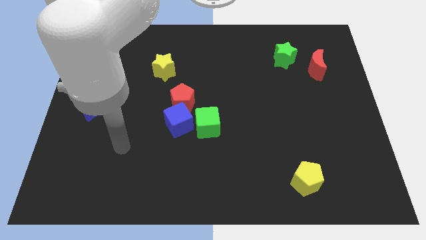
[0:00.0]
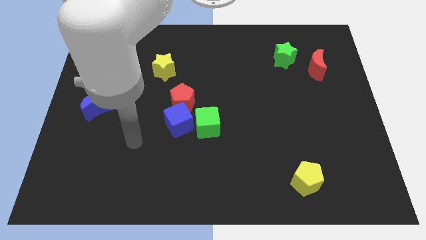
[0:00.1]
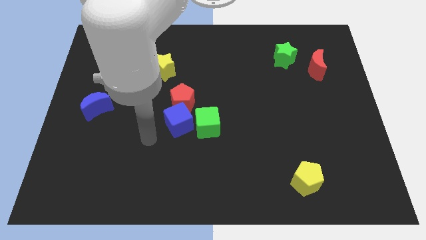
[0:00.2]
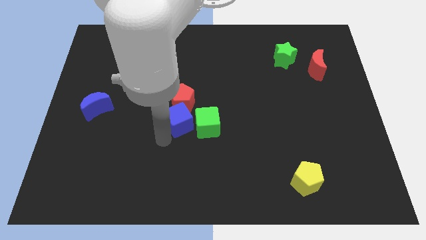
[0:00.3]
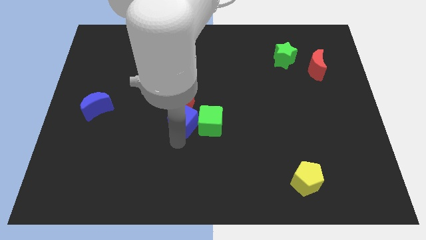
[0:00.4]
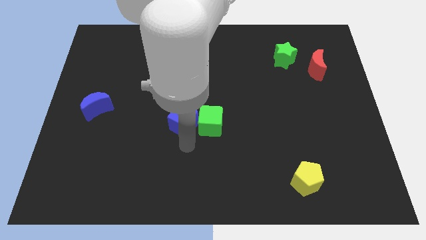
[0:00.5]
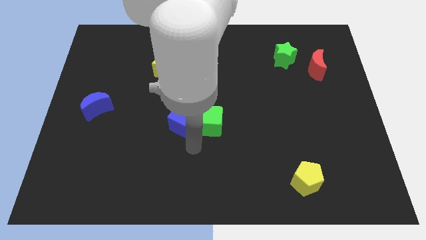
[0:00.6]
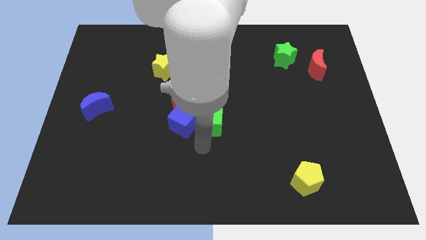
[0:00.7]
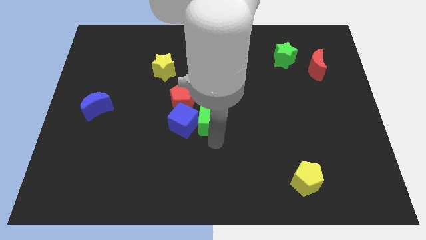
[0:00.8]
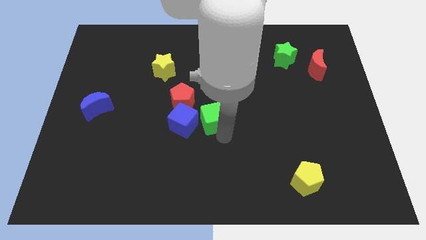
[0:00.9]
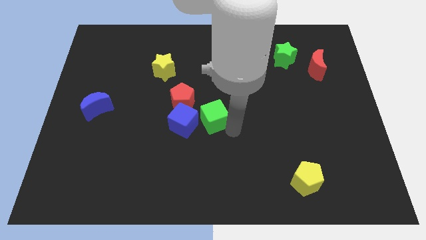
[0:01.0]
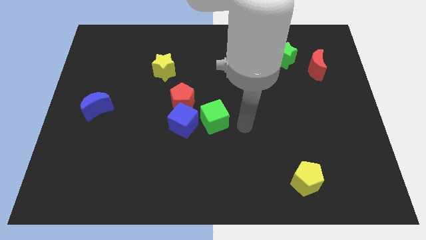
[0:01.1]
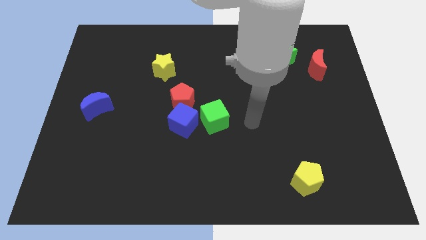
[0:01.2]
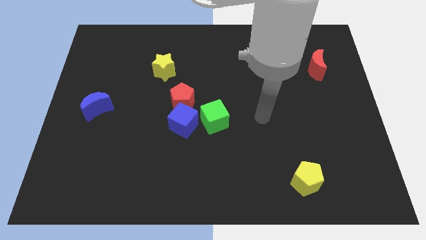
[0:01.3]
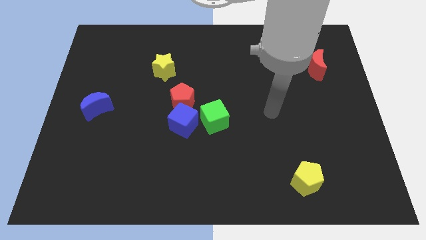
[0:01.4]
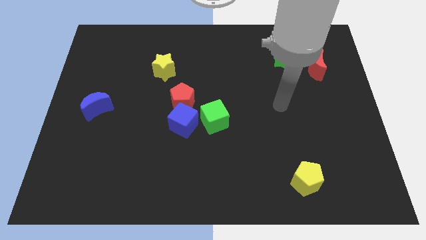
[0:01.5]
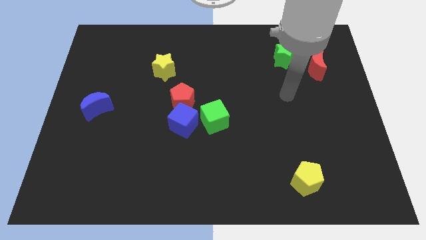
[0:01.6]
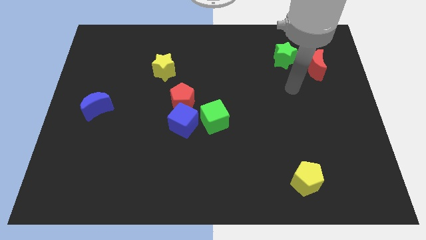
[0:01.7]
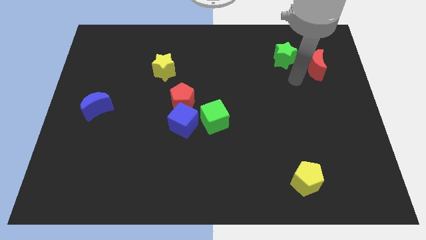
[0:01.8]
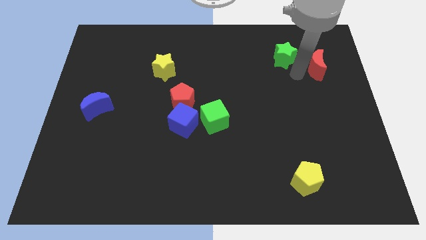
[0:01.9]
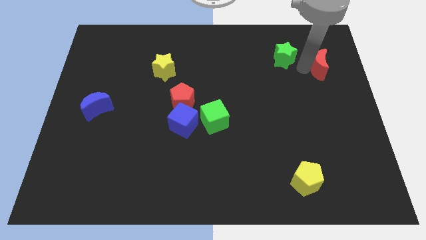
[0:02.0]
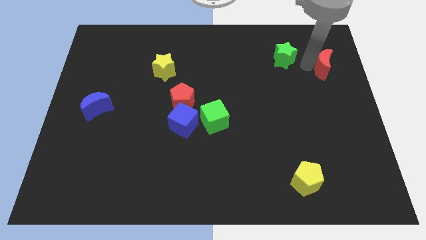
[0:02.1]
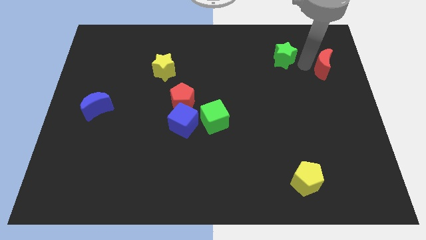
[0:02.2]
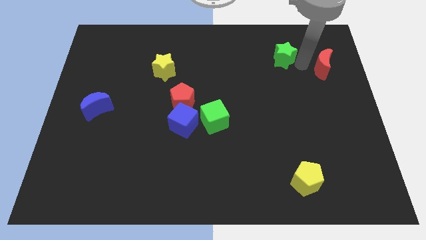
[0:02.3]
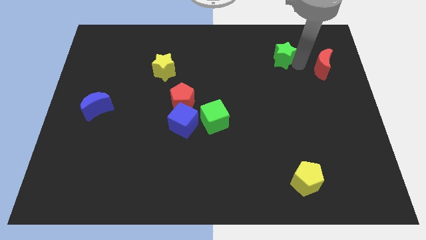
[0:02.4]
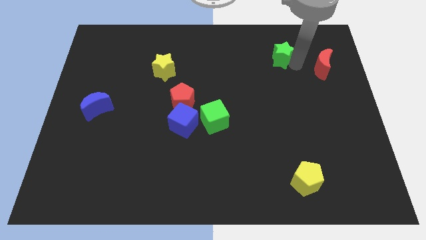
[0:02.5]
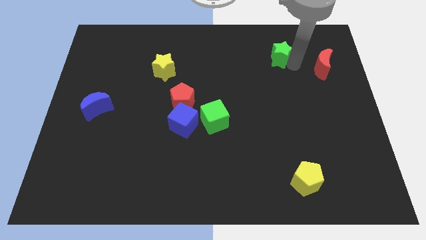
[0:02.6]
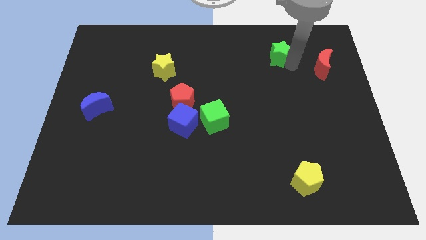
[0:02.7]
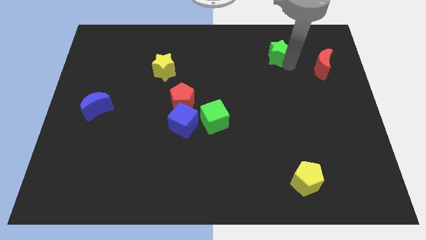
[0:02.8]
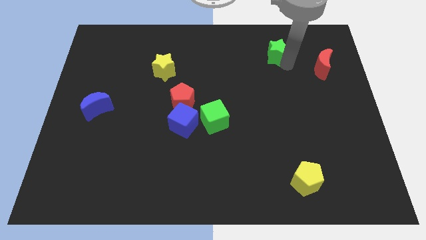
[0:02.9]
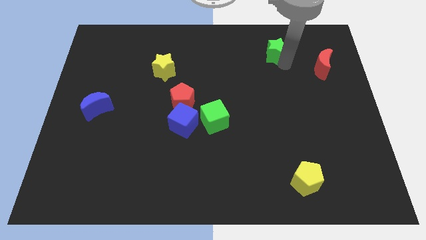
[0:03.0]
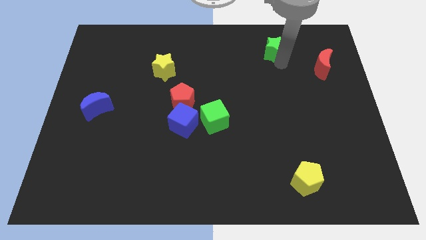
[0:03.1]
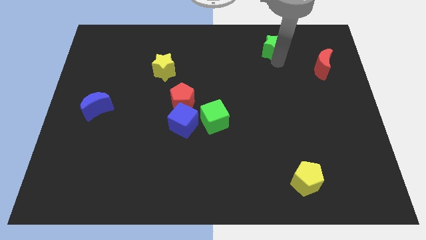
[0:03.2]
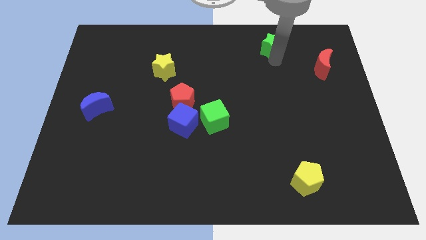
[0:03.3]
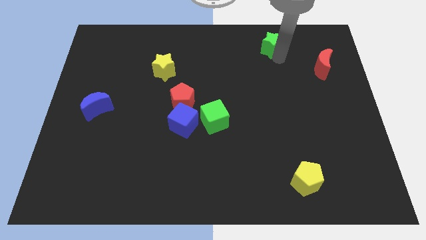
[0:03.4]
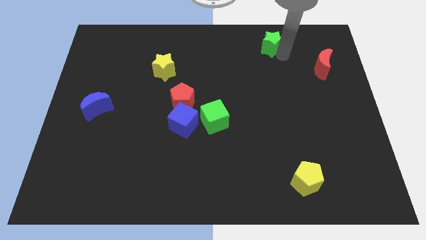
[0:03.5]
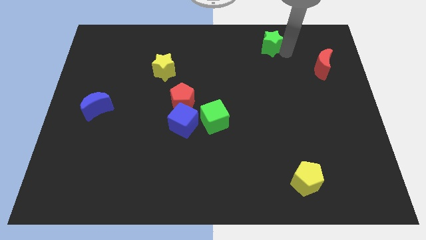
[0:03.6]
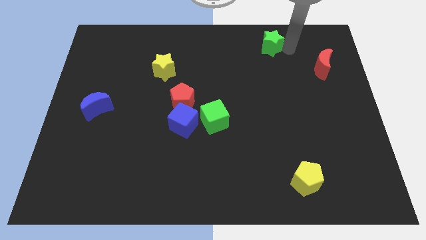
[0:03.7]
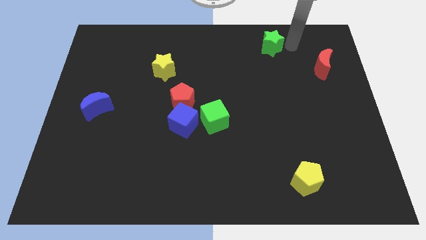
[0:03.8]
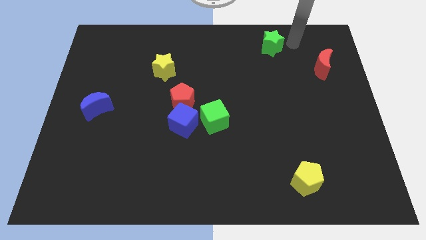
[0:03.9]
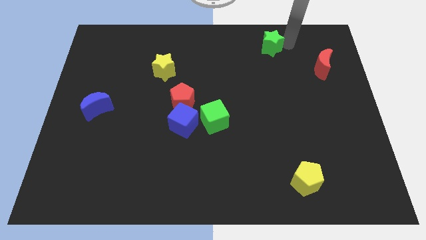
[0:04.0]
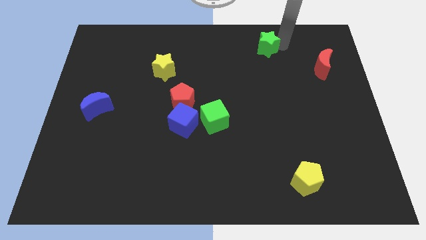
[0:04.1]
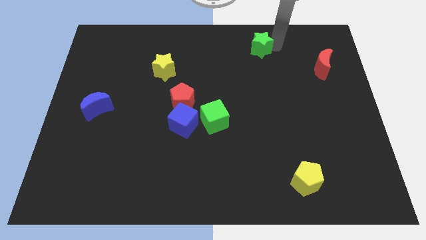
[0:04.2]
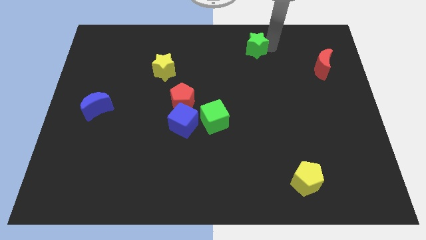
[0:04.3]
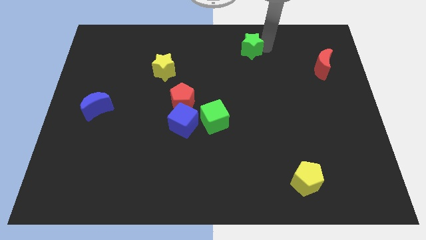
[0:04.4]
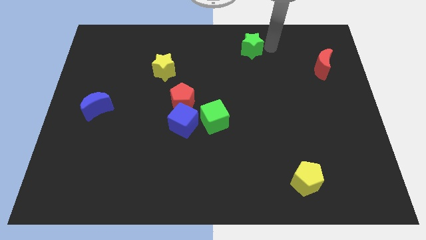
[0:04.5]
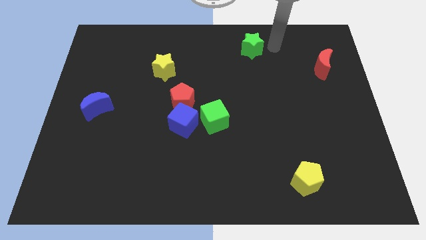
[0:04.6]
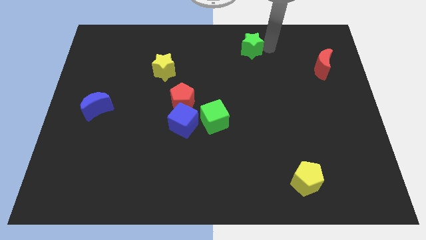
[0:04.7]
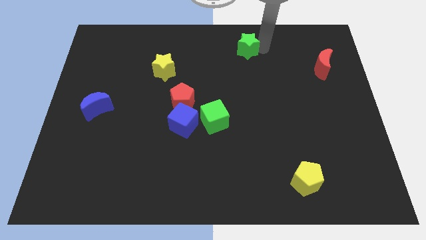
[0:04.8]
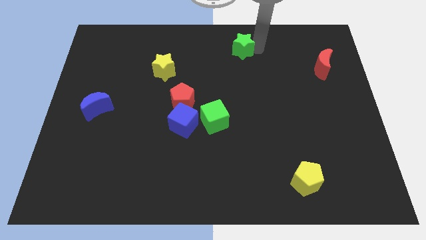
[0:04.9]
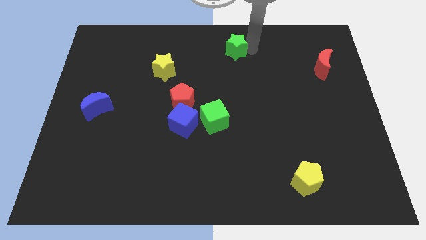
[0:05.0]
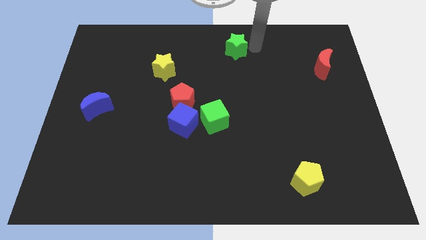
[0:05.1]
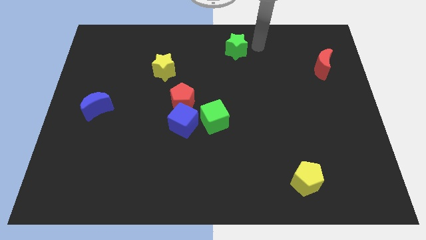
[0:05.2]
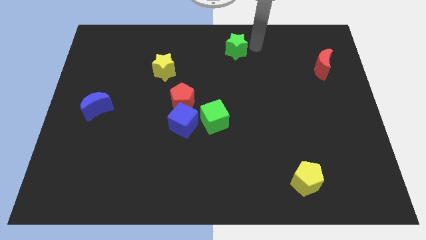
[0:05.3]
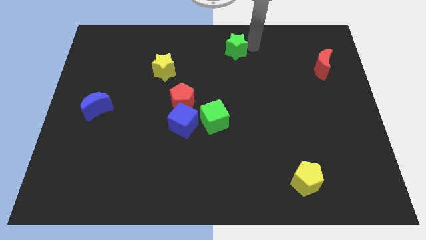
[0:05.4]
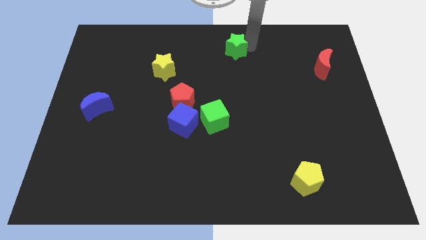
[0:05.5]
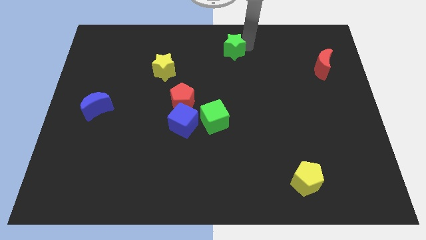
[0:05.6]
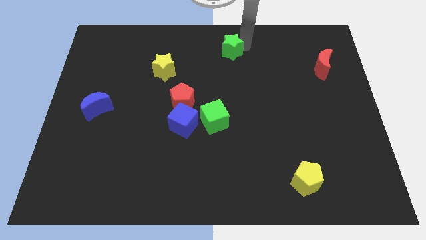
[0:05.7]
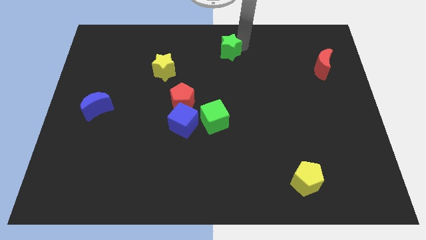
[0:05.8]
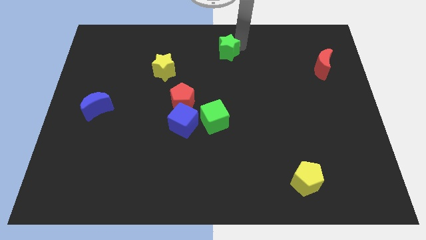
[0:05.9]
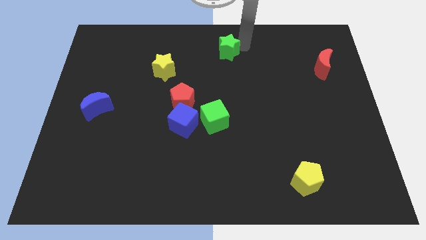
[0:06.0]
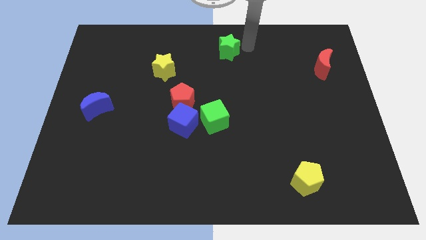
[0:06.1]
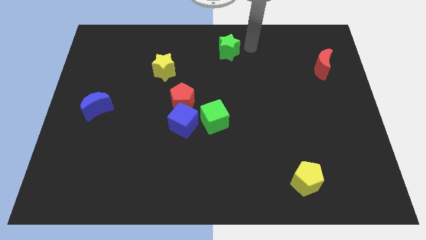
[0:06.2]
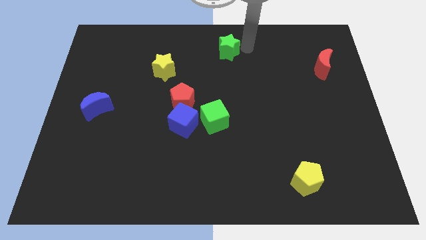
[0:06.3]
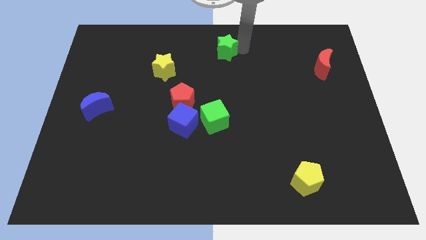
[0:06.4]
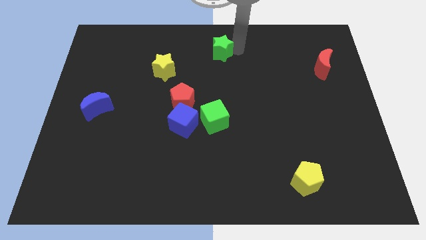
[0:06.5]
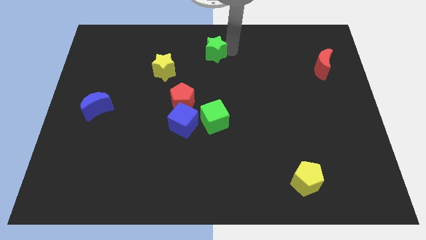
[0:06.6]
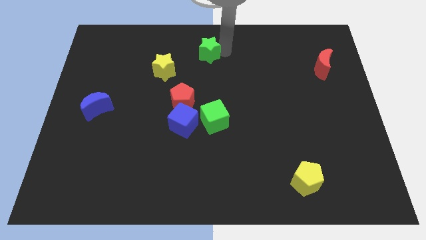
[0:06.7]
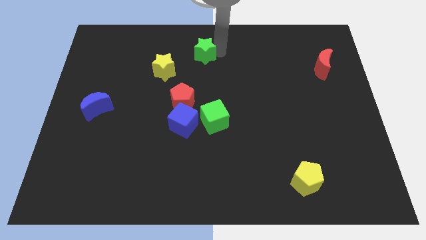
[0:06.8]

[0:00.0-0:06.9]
slide the green star to the left

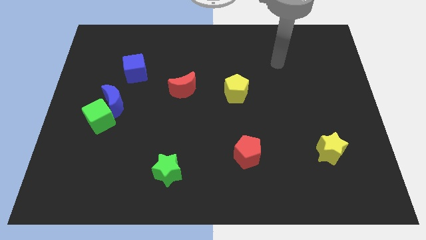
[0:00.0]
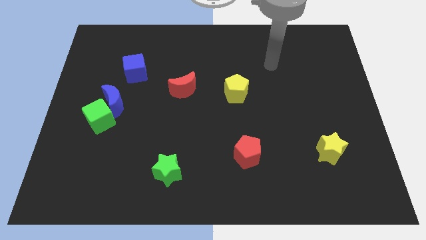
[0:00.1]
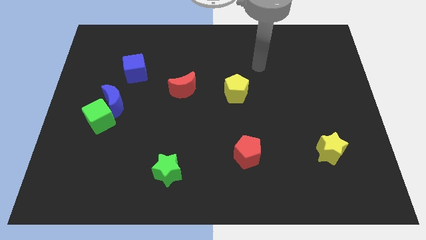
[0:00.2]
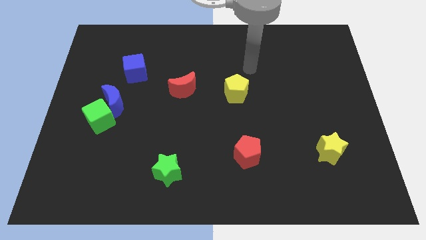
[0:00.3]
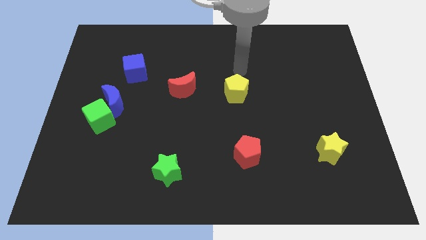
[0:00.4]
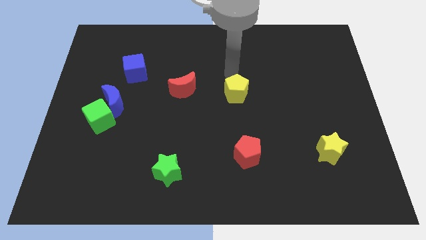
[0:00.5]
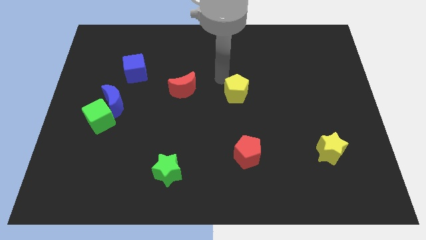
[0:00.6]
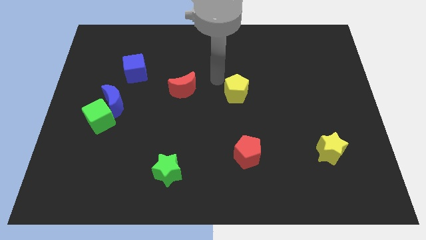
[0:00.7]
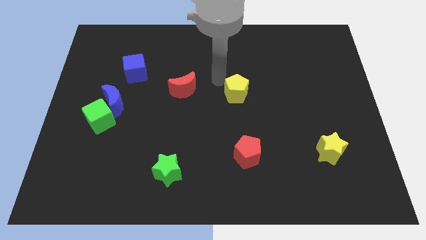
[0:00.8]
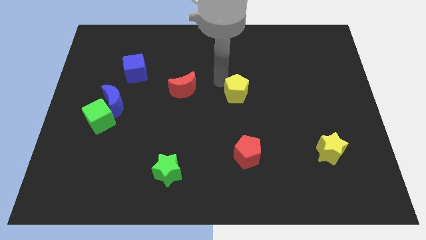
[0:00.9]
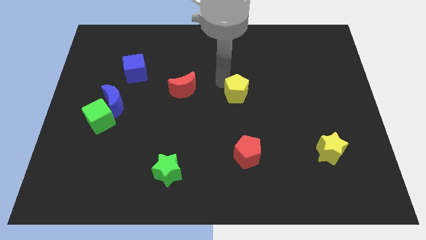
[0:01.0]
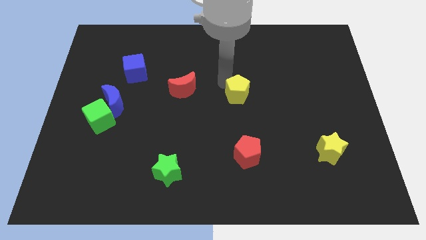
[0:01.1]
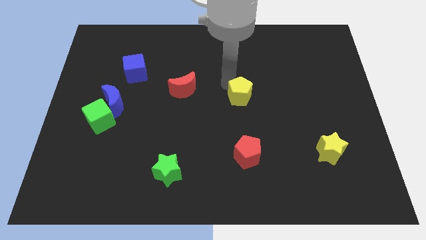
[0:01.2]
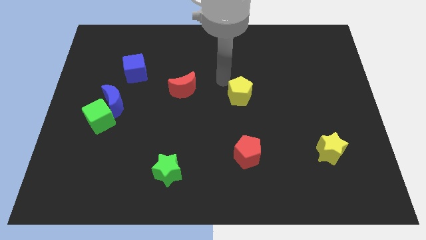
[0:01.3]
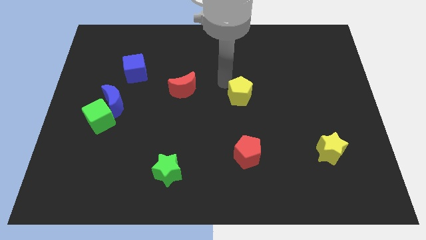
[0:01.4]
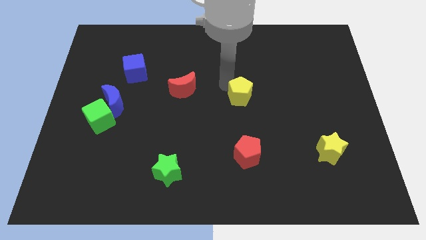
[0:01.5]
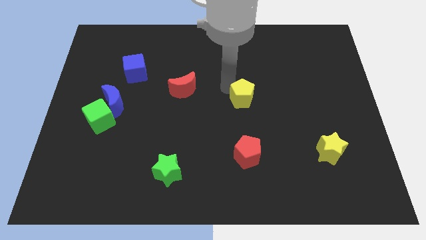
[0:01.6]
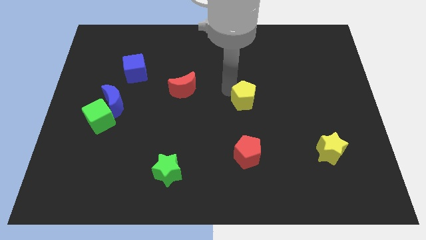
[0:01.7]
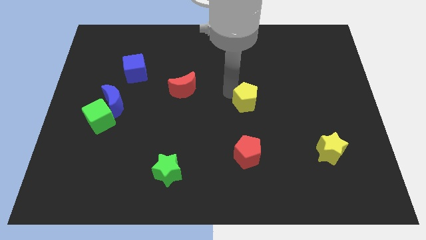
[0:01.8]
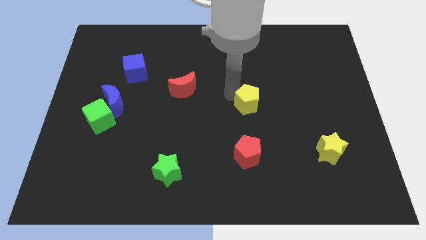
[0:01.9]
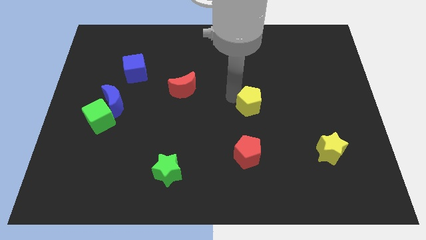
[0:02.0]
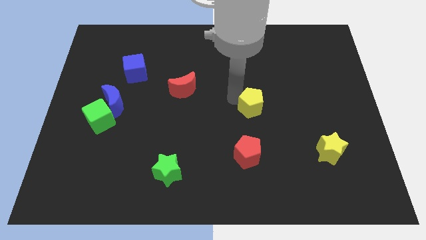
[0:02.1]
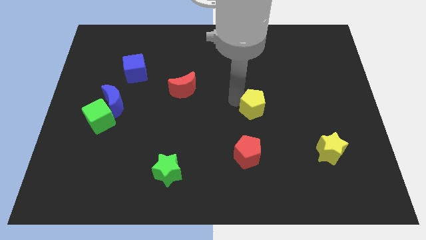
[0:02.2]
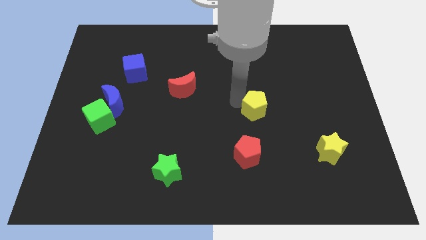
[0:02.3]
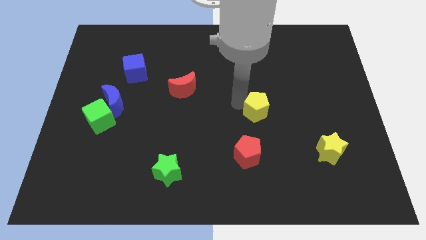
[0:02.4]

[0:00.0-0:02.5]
push the yellow pentagon downwards and then to the right slightly
